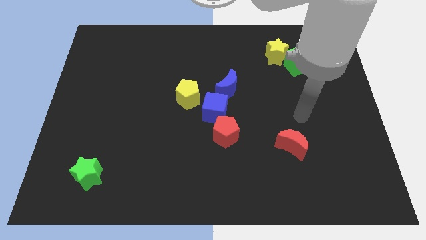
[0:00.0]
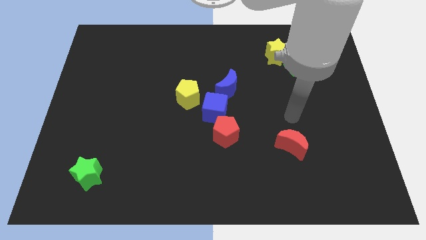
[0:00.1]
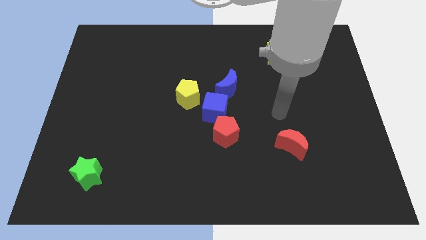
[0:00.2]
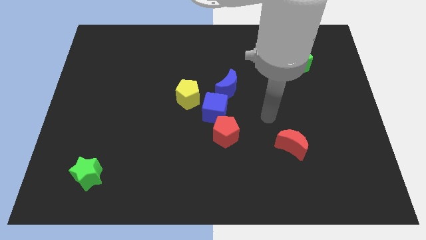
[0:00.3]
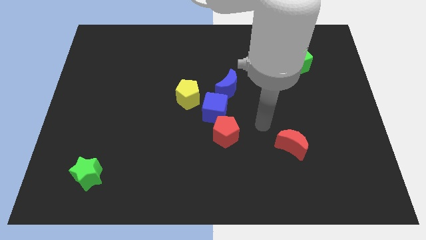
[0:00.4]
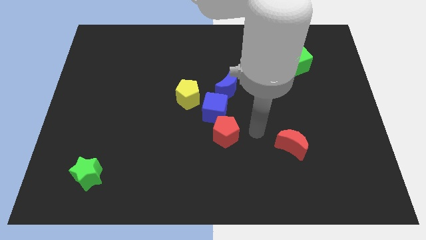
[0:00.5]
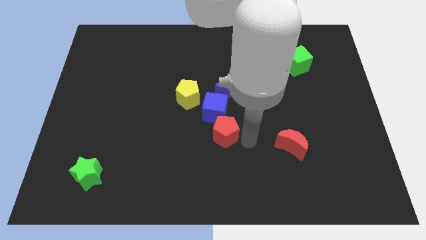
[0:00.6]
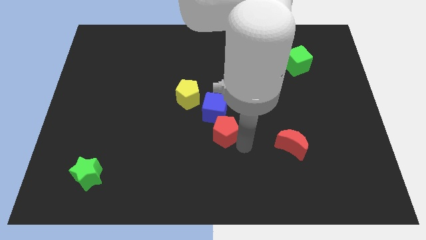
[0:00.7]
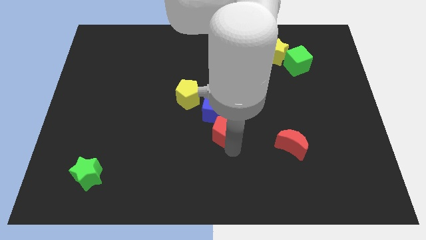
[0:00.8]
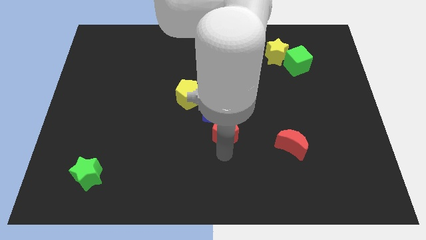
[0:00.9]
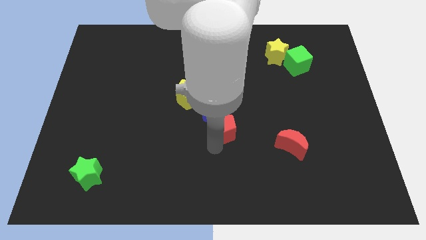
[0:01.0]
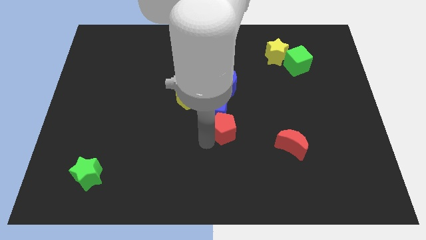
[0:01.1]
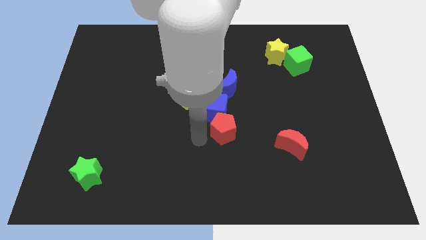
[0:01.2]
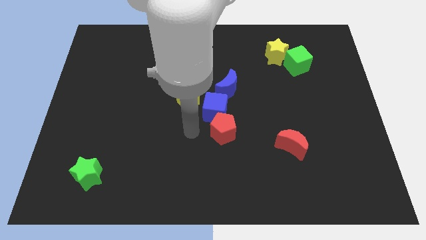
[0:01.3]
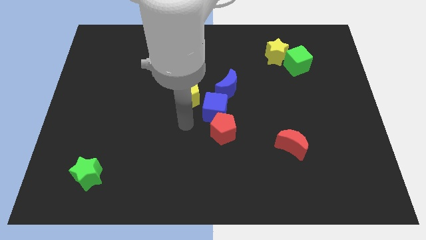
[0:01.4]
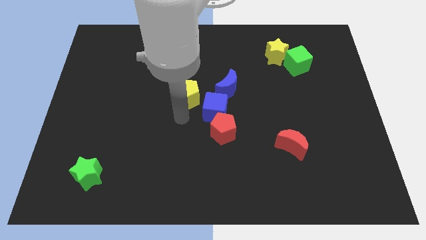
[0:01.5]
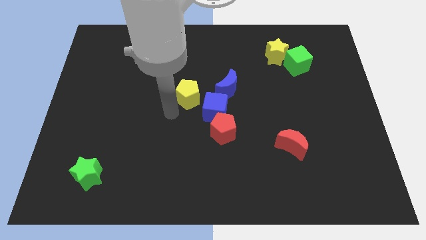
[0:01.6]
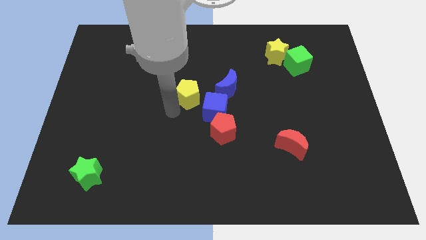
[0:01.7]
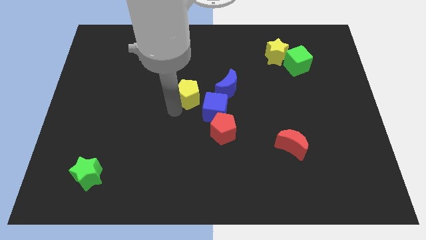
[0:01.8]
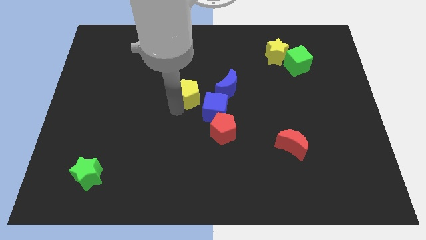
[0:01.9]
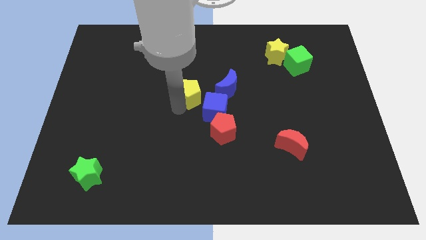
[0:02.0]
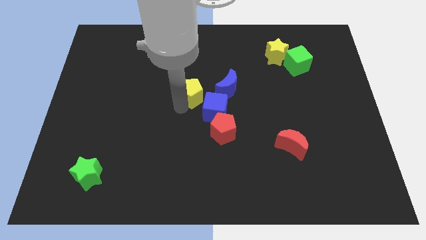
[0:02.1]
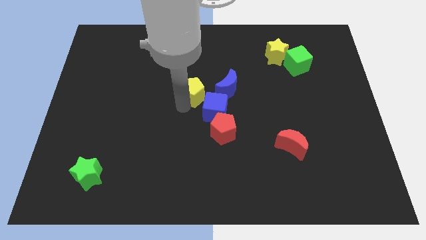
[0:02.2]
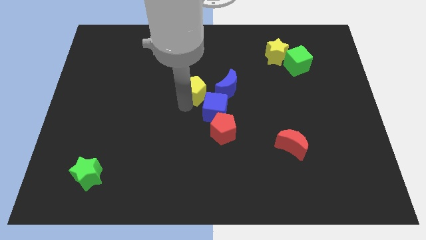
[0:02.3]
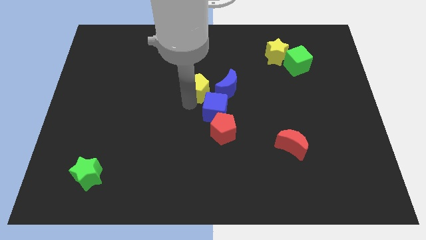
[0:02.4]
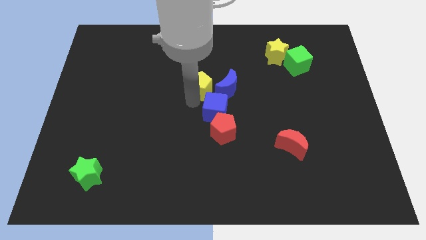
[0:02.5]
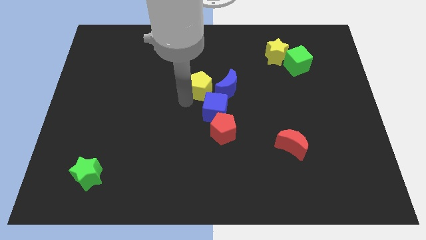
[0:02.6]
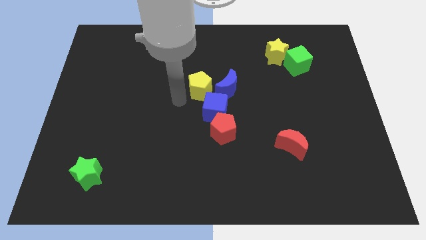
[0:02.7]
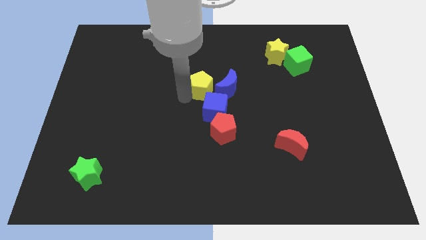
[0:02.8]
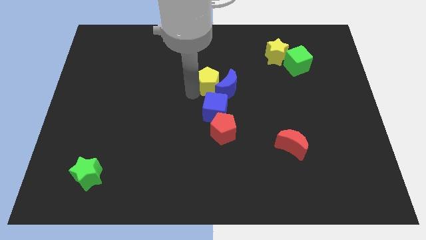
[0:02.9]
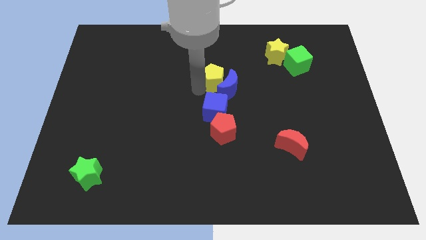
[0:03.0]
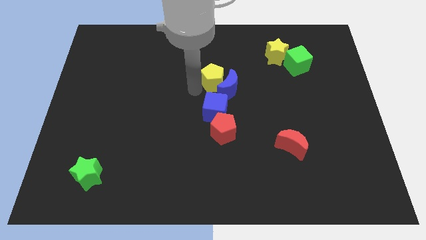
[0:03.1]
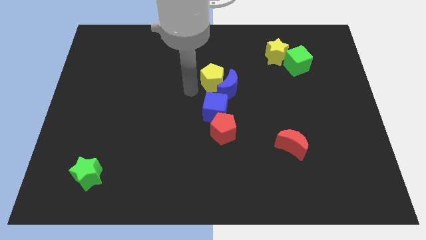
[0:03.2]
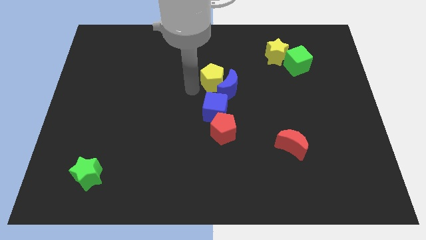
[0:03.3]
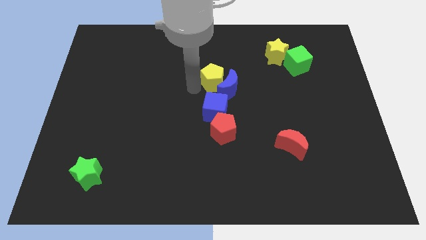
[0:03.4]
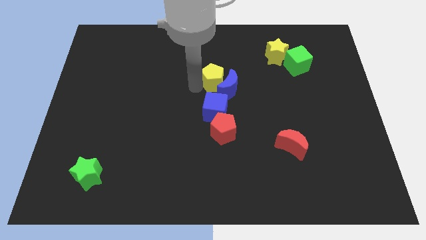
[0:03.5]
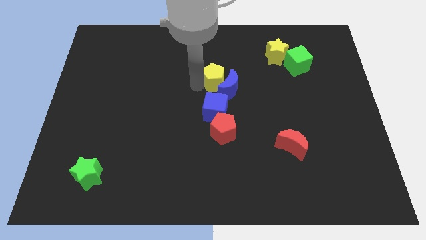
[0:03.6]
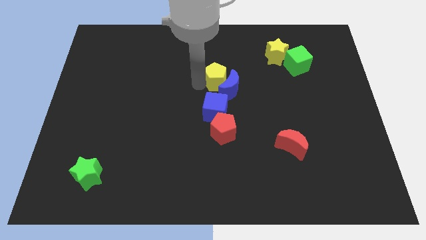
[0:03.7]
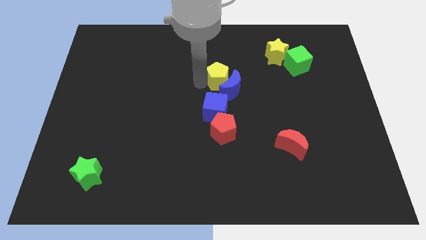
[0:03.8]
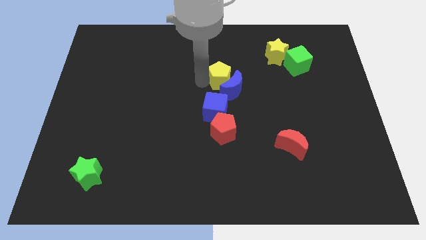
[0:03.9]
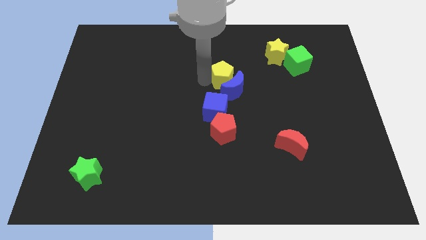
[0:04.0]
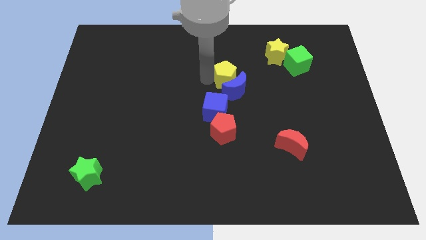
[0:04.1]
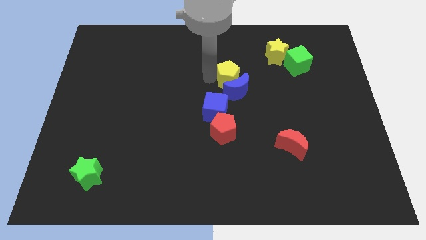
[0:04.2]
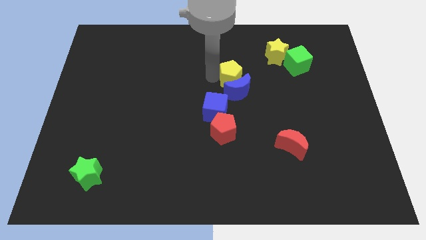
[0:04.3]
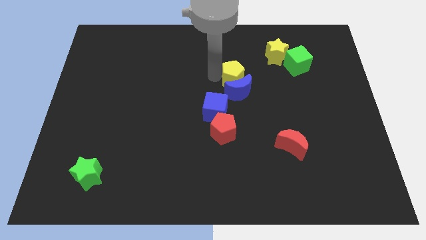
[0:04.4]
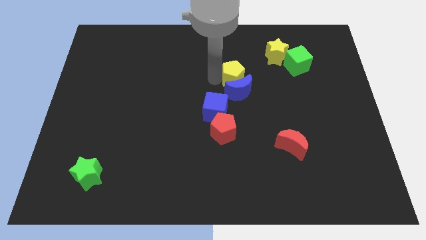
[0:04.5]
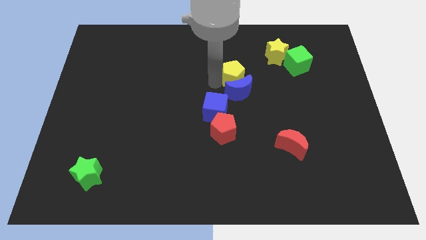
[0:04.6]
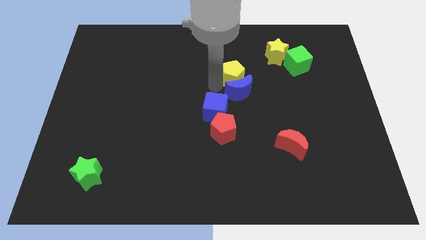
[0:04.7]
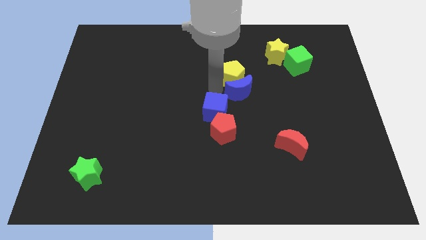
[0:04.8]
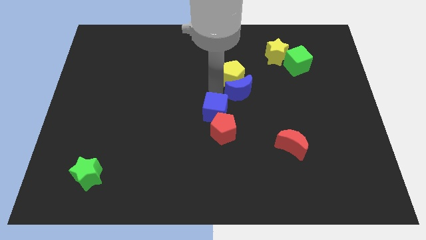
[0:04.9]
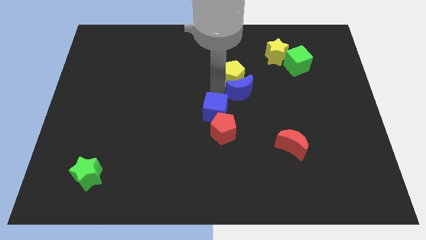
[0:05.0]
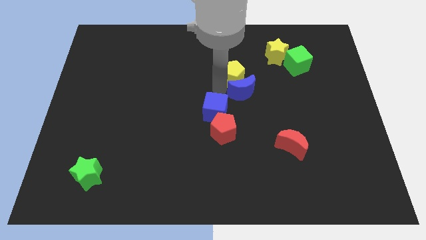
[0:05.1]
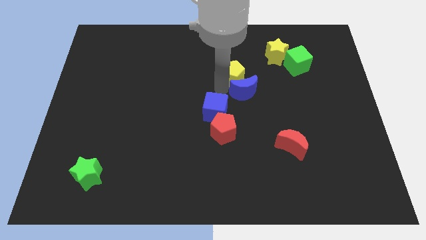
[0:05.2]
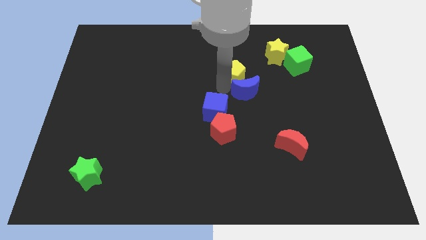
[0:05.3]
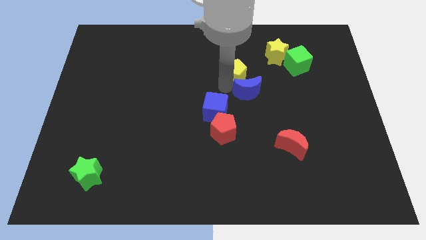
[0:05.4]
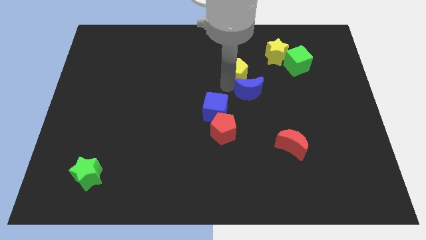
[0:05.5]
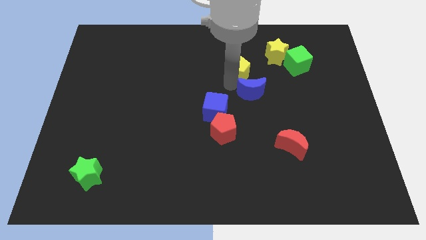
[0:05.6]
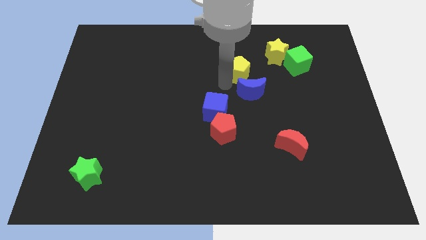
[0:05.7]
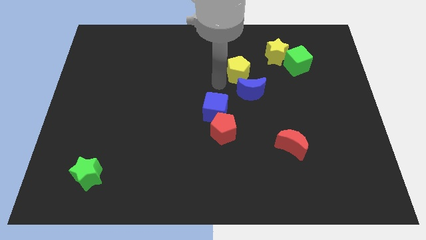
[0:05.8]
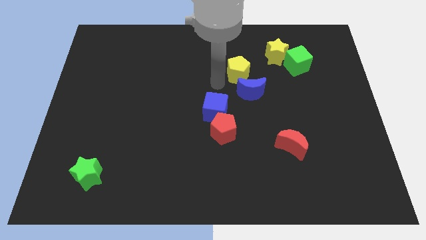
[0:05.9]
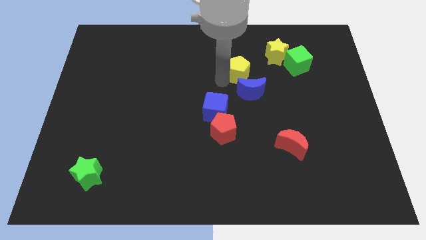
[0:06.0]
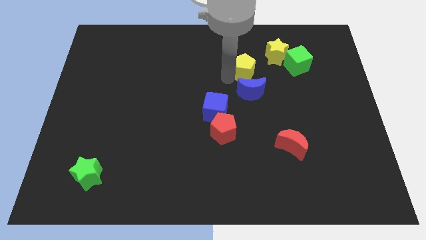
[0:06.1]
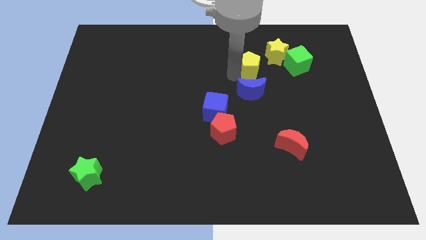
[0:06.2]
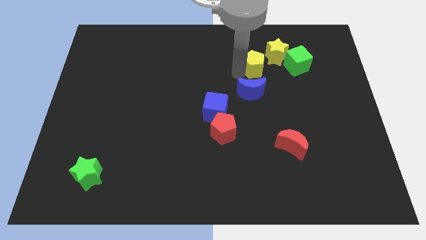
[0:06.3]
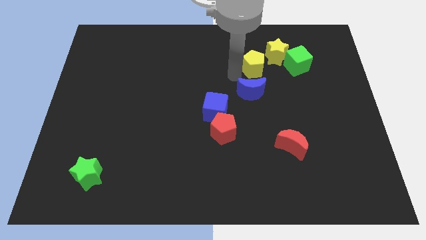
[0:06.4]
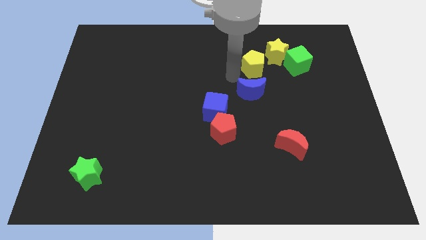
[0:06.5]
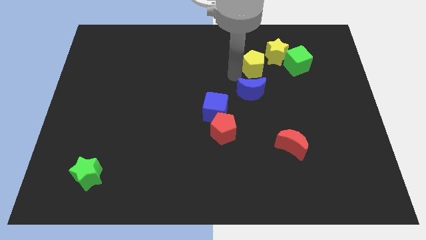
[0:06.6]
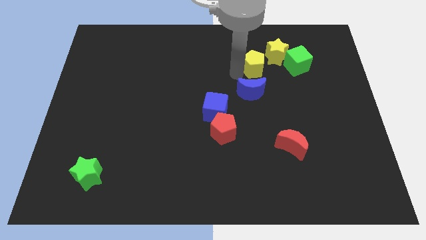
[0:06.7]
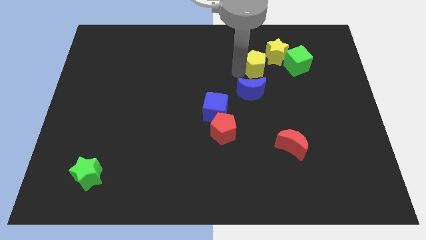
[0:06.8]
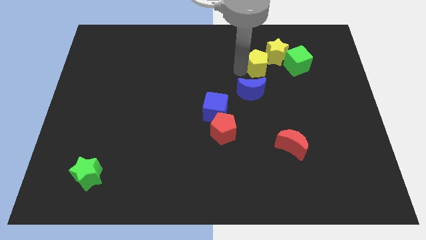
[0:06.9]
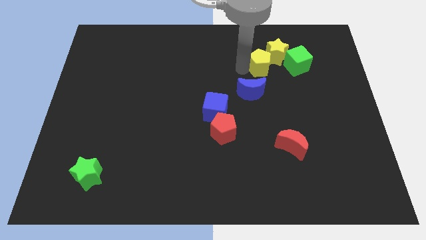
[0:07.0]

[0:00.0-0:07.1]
slide the yellow pentagon to the yellow star

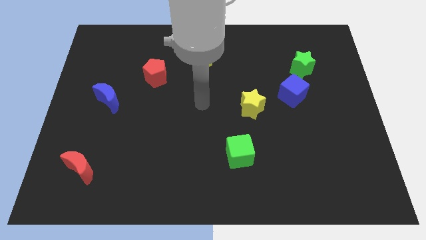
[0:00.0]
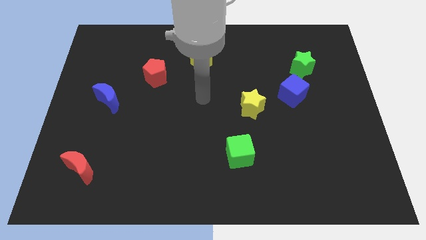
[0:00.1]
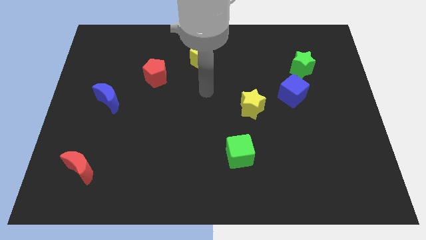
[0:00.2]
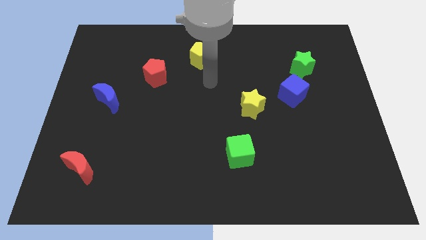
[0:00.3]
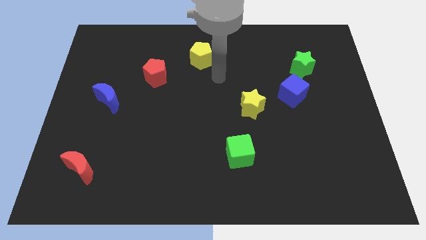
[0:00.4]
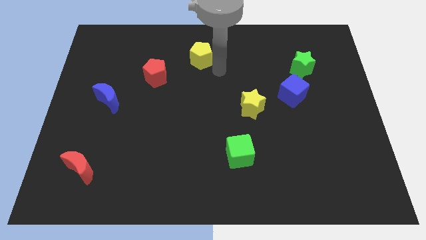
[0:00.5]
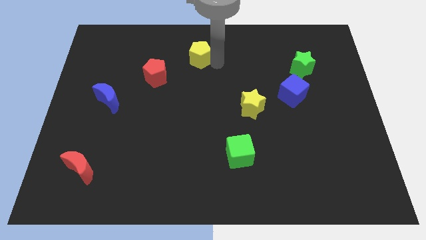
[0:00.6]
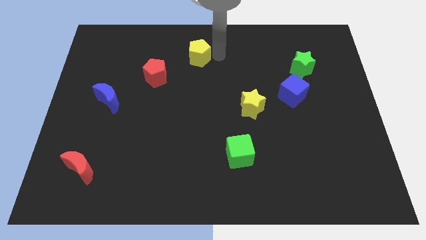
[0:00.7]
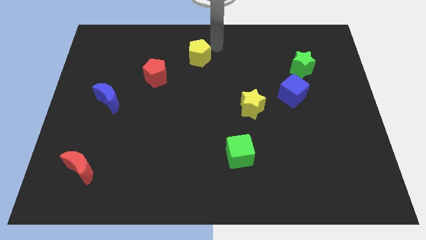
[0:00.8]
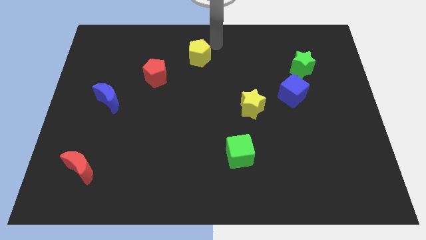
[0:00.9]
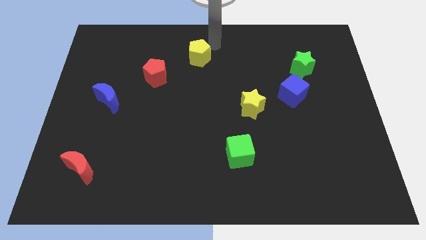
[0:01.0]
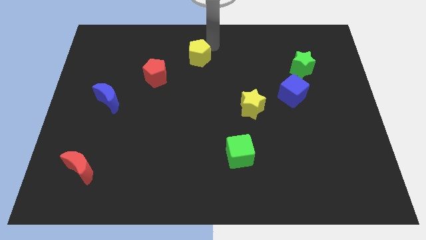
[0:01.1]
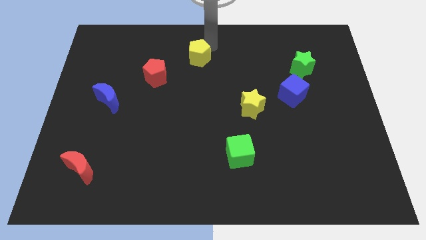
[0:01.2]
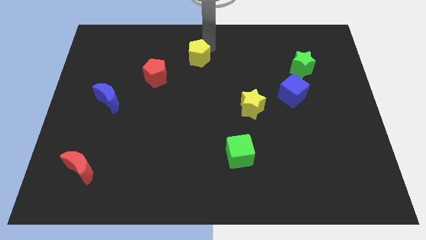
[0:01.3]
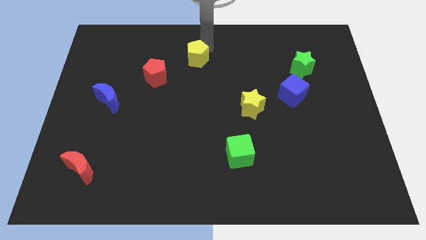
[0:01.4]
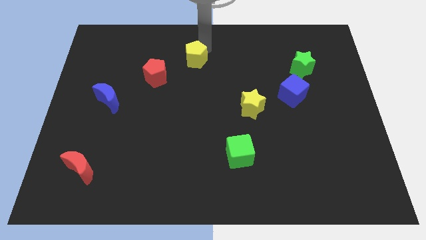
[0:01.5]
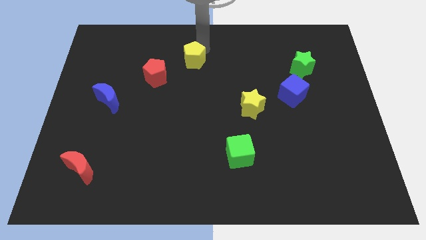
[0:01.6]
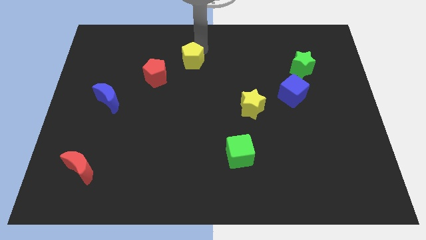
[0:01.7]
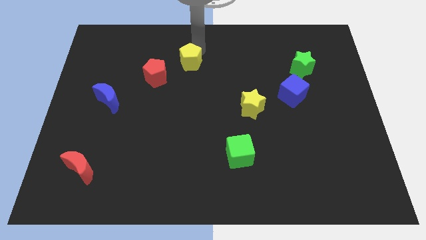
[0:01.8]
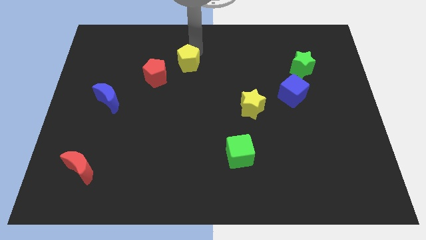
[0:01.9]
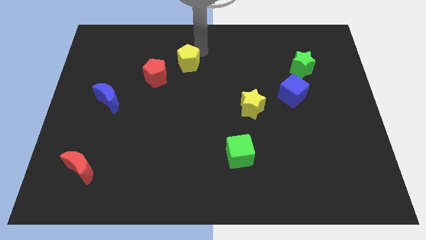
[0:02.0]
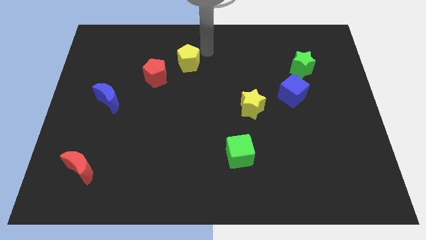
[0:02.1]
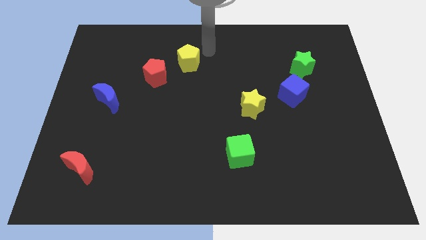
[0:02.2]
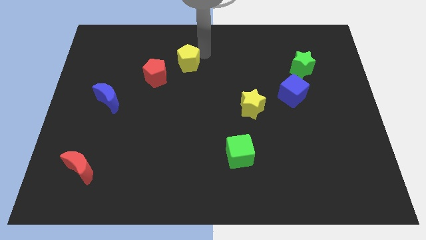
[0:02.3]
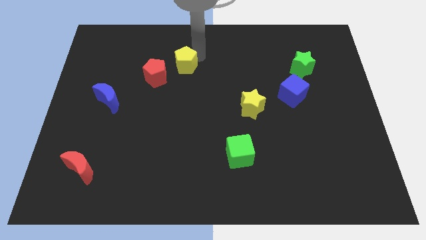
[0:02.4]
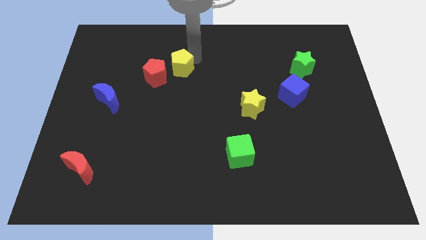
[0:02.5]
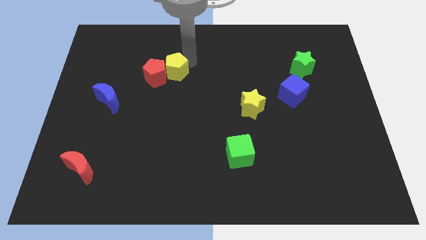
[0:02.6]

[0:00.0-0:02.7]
put the yellow pentagon to the red pentagon
